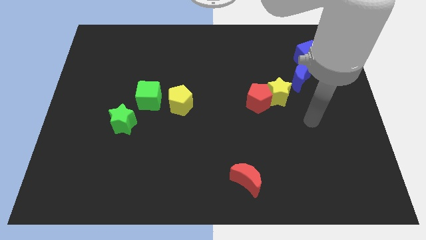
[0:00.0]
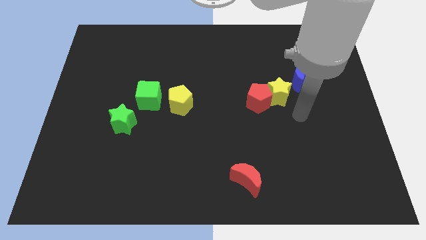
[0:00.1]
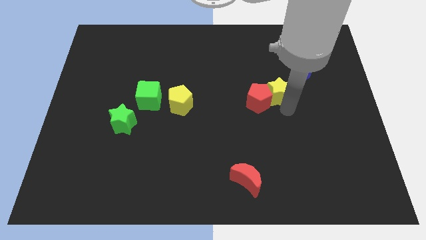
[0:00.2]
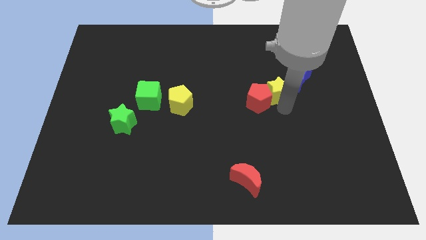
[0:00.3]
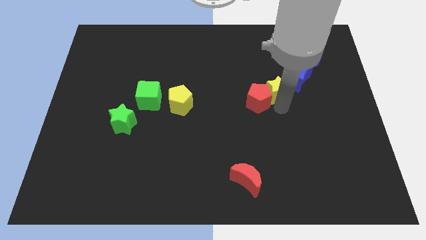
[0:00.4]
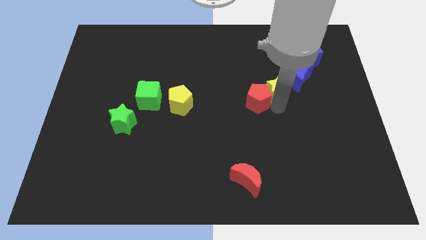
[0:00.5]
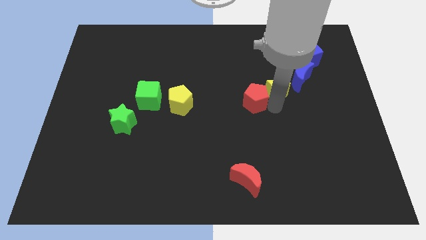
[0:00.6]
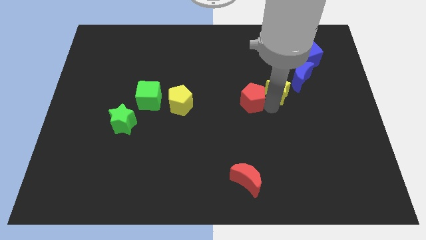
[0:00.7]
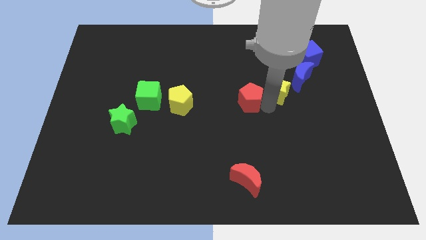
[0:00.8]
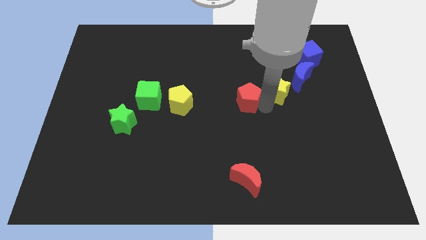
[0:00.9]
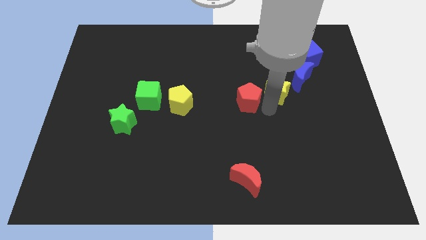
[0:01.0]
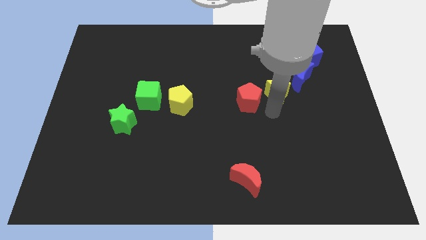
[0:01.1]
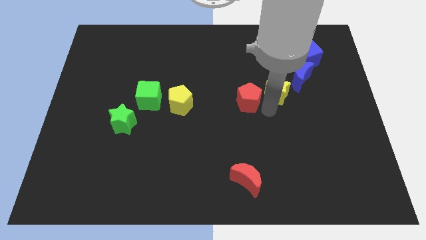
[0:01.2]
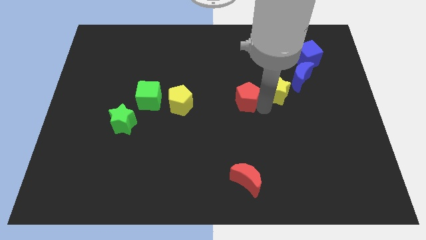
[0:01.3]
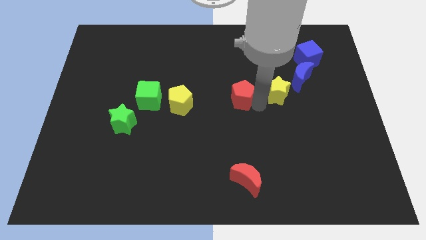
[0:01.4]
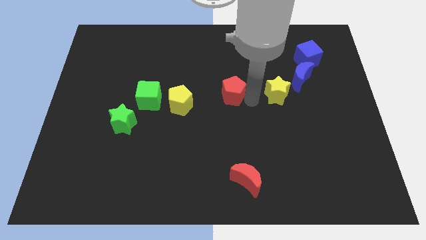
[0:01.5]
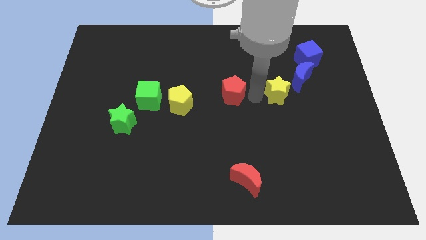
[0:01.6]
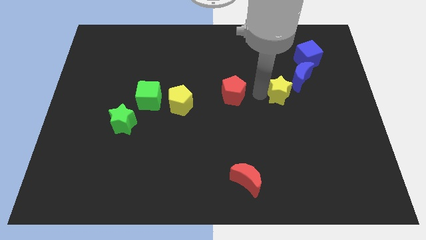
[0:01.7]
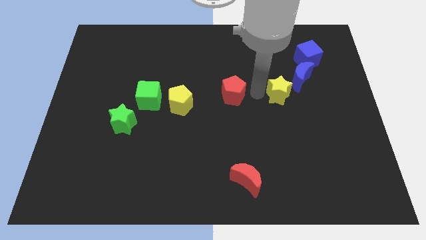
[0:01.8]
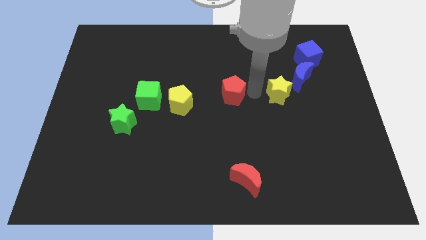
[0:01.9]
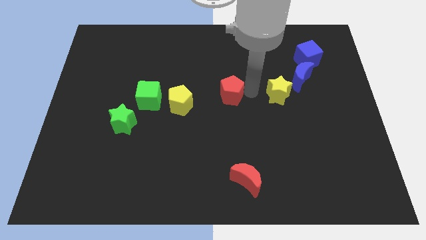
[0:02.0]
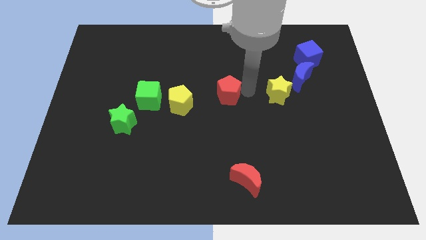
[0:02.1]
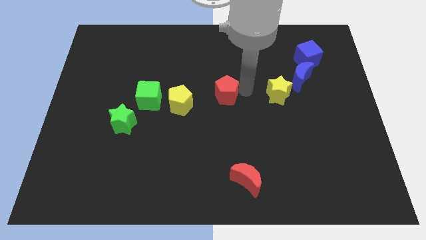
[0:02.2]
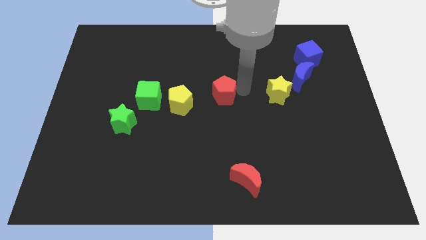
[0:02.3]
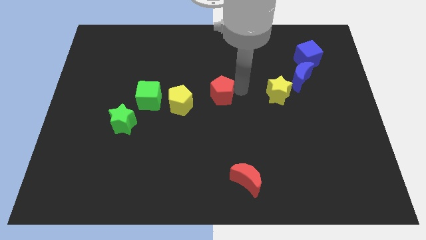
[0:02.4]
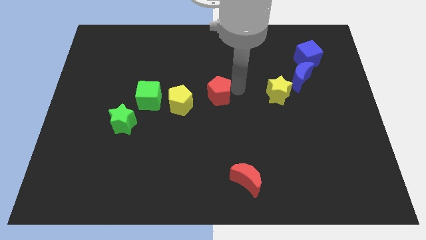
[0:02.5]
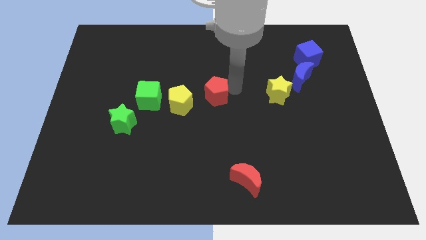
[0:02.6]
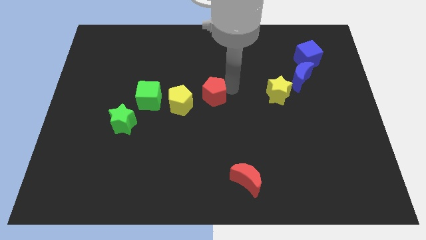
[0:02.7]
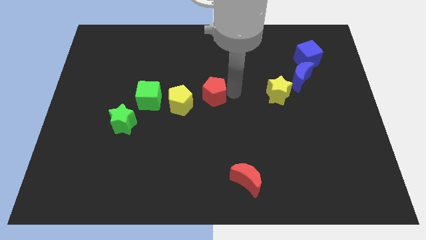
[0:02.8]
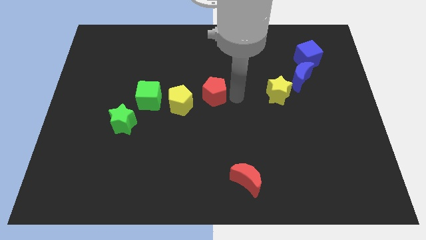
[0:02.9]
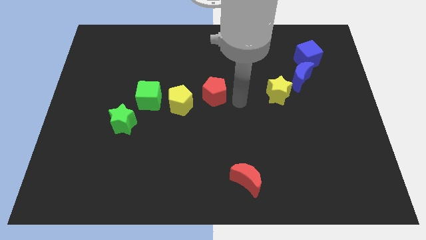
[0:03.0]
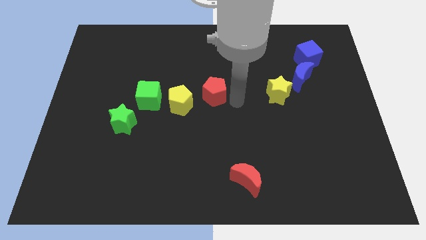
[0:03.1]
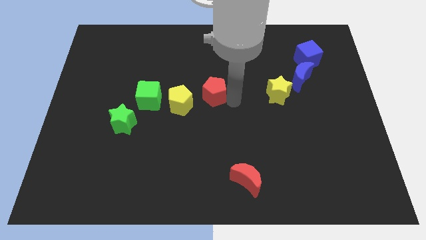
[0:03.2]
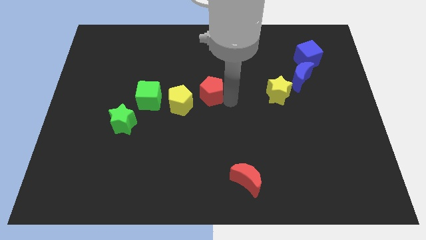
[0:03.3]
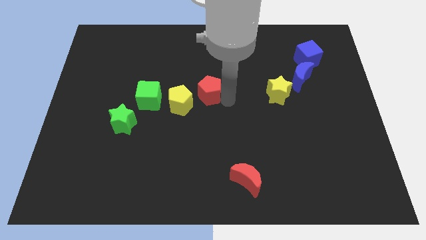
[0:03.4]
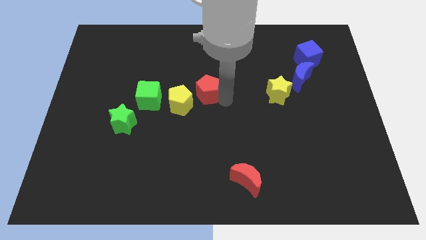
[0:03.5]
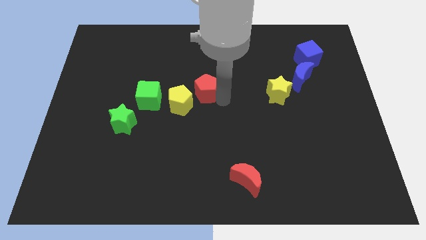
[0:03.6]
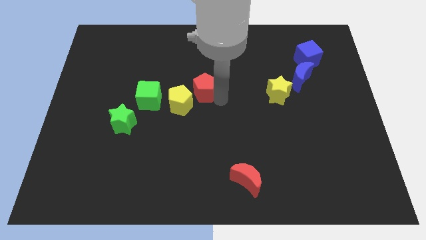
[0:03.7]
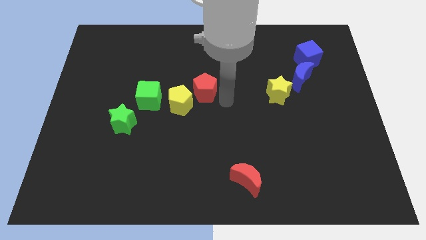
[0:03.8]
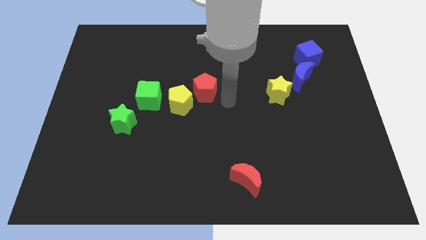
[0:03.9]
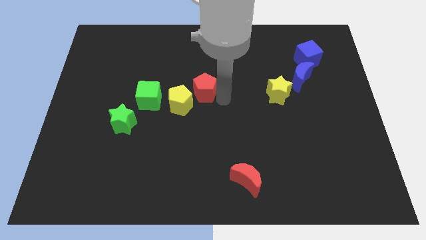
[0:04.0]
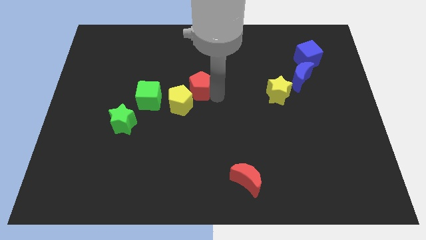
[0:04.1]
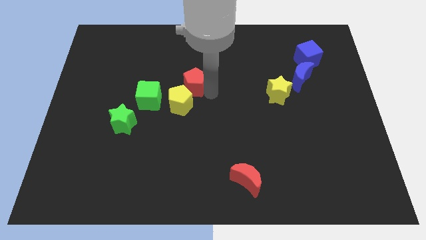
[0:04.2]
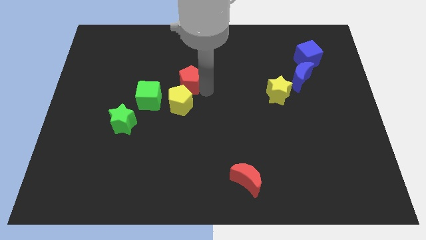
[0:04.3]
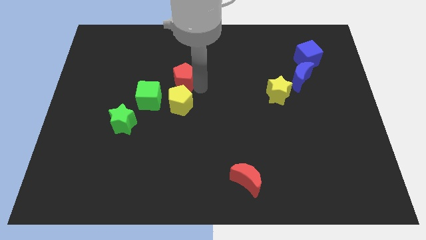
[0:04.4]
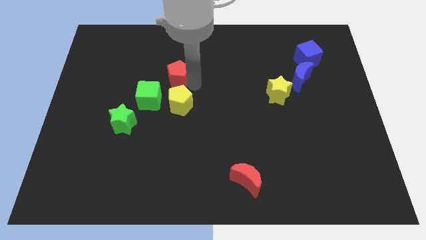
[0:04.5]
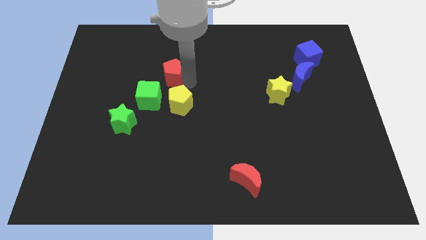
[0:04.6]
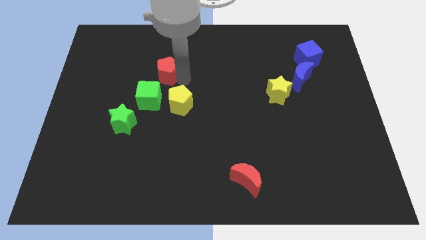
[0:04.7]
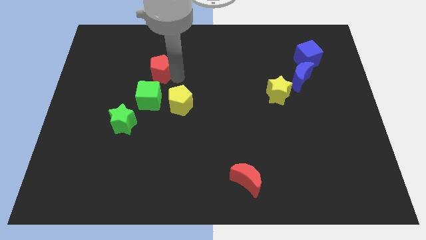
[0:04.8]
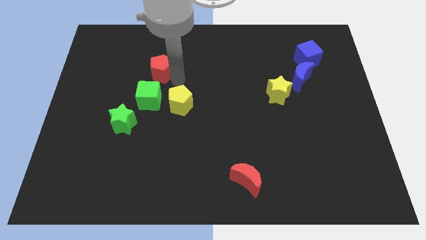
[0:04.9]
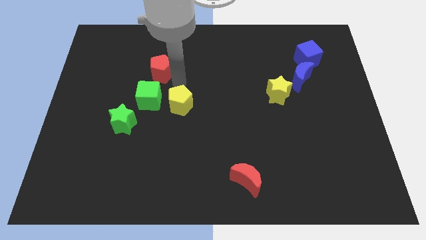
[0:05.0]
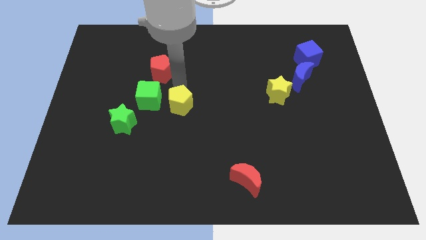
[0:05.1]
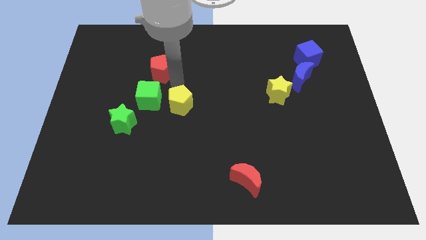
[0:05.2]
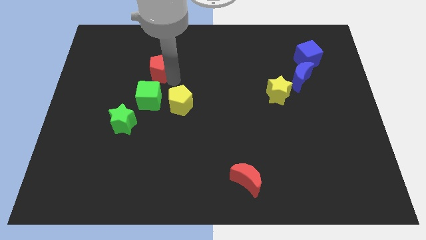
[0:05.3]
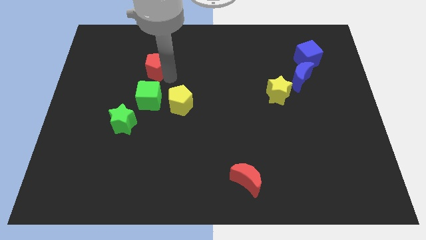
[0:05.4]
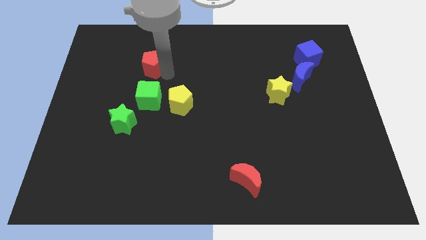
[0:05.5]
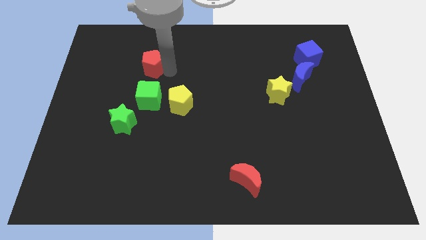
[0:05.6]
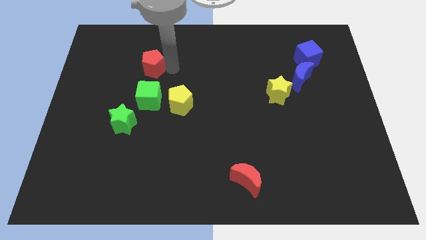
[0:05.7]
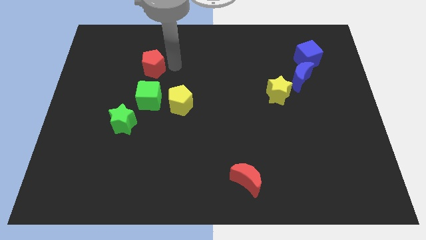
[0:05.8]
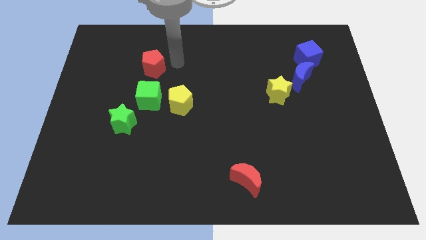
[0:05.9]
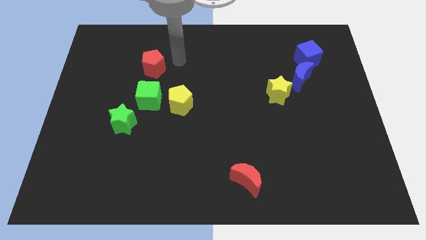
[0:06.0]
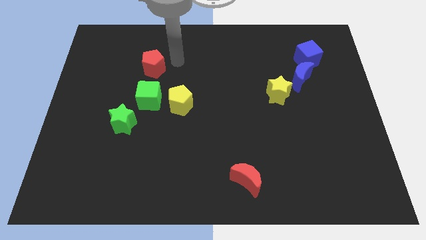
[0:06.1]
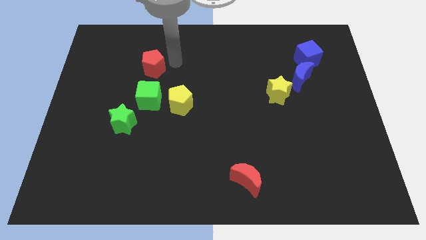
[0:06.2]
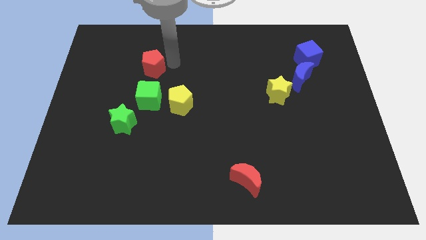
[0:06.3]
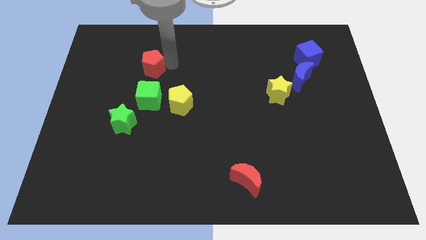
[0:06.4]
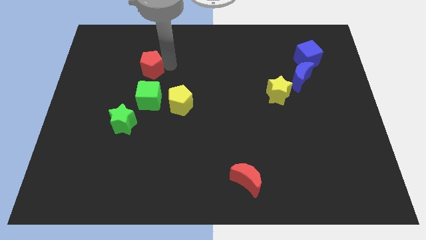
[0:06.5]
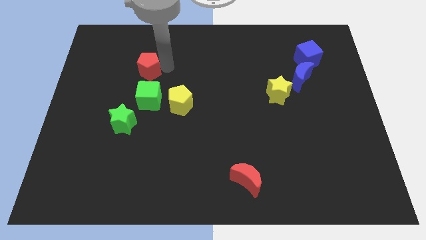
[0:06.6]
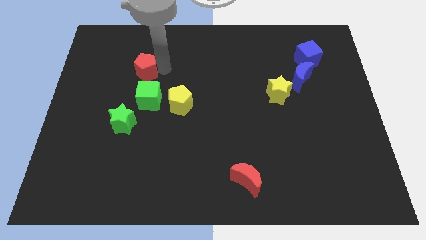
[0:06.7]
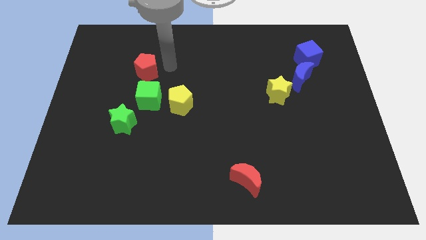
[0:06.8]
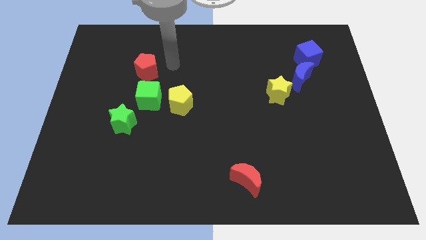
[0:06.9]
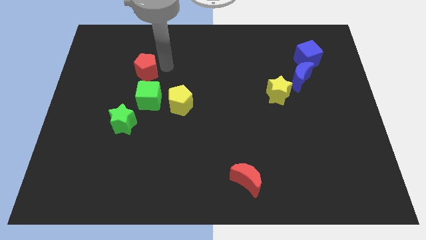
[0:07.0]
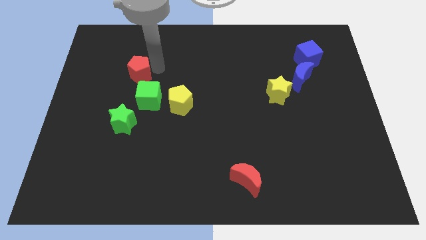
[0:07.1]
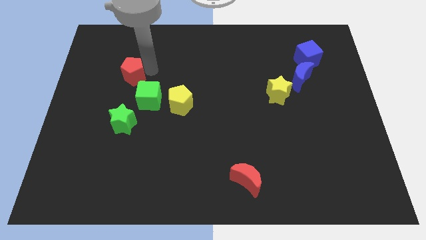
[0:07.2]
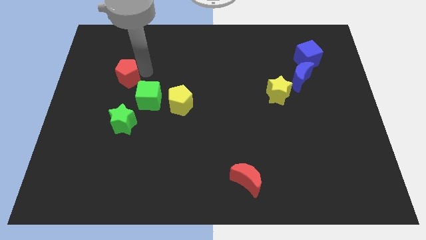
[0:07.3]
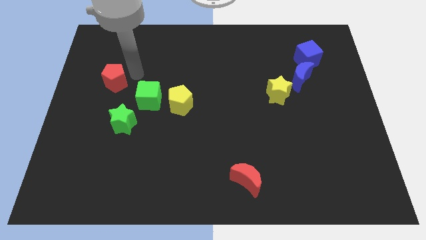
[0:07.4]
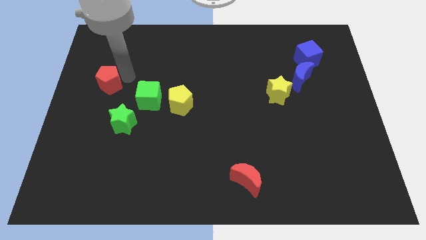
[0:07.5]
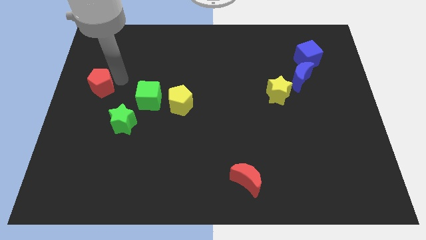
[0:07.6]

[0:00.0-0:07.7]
put the red pentagon to the left side of the board
